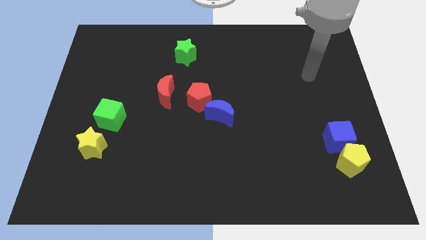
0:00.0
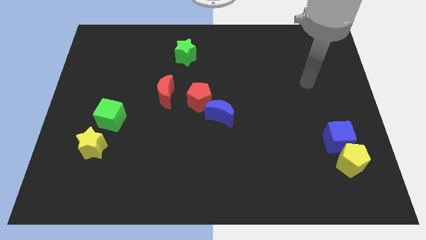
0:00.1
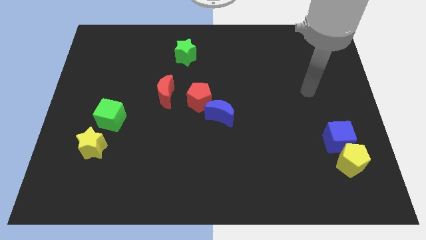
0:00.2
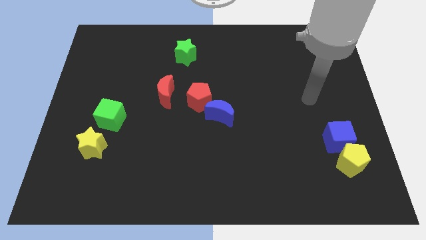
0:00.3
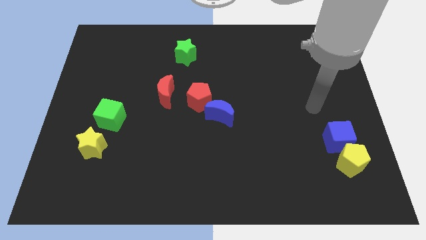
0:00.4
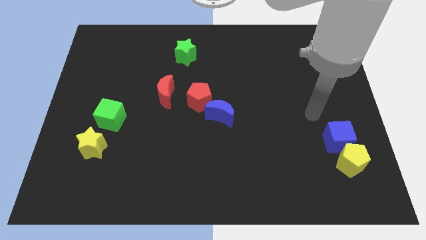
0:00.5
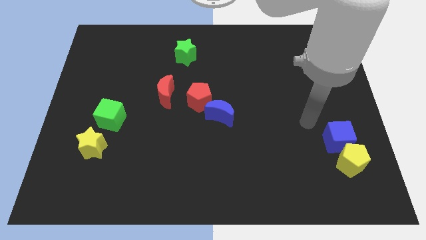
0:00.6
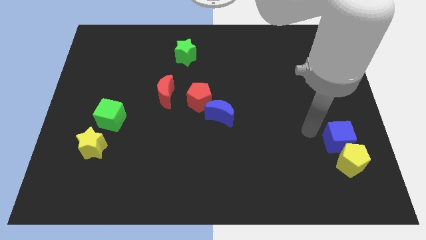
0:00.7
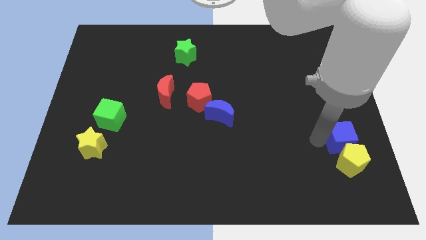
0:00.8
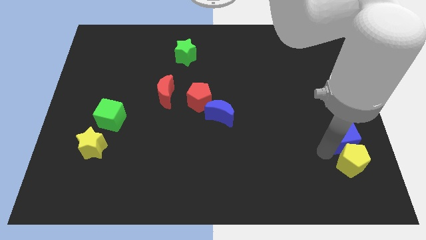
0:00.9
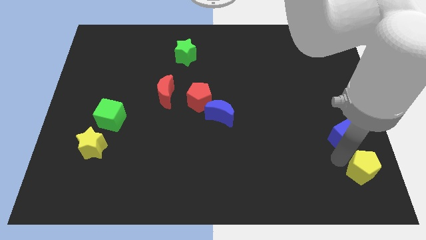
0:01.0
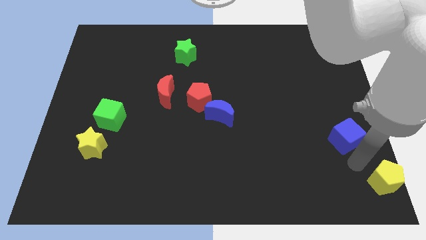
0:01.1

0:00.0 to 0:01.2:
separate the blue cube from the yellow pentagon

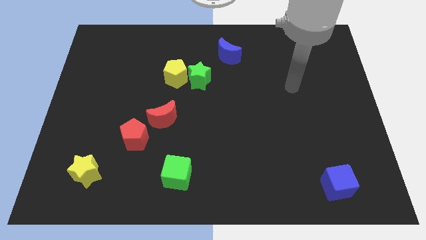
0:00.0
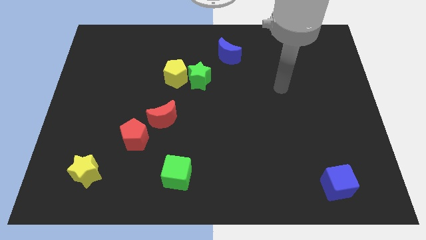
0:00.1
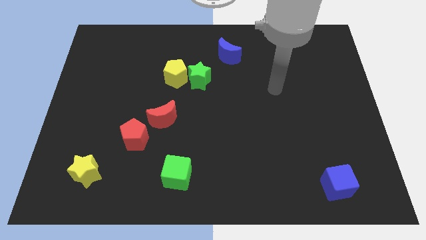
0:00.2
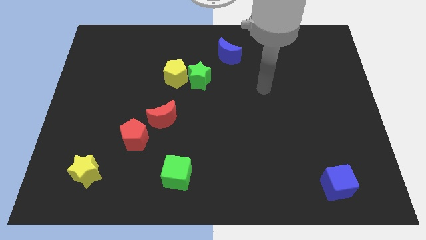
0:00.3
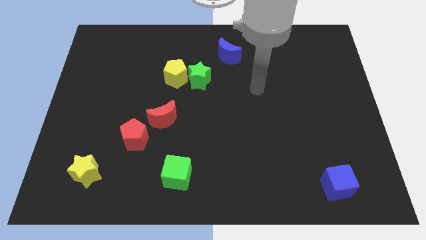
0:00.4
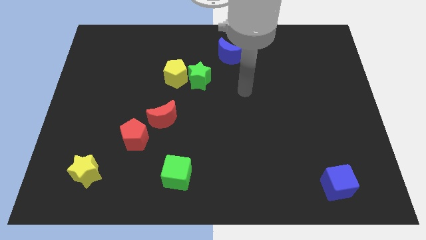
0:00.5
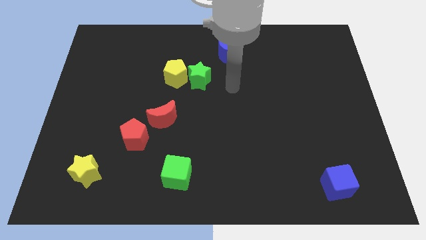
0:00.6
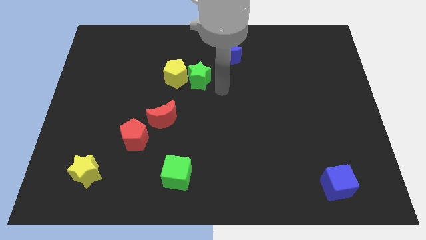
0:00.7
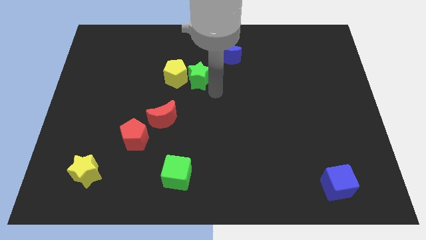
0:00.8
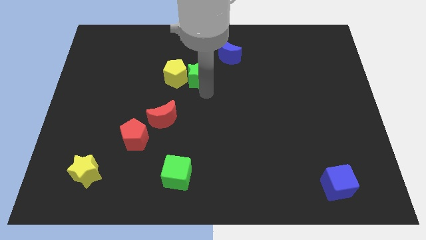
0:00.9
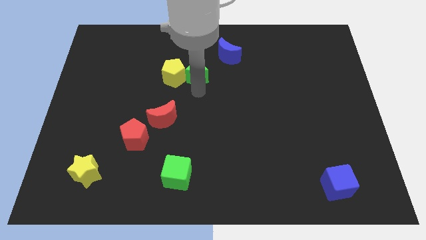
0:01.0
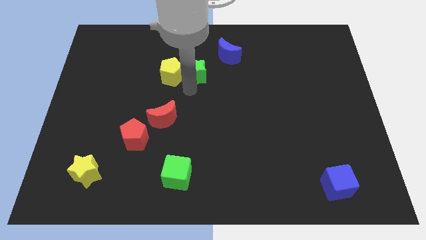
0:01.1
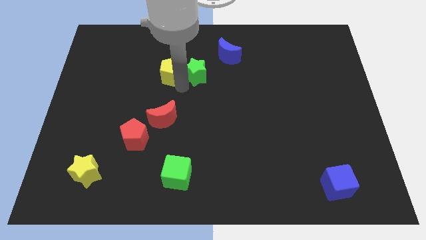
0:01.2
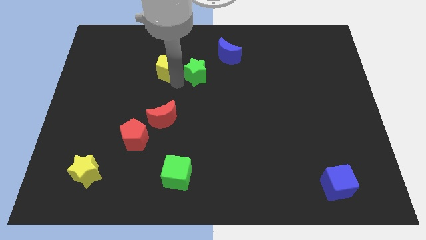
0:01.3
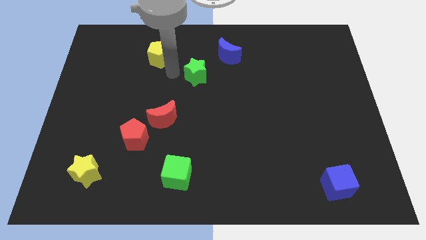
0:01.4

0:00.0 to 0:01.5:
pull the green star apart from the yellow pentagon

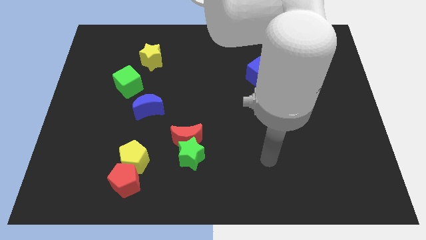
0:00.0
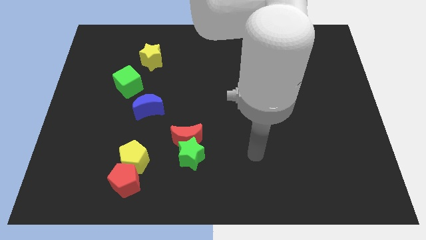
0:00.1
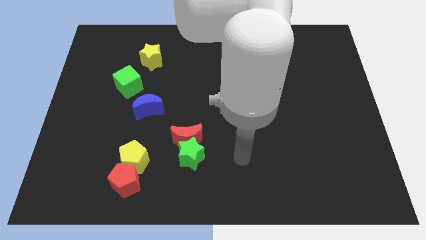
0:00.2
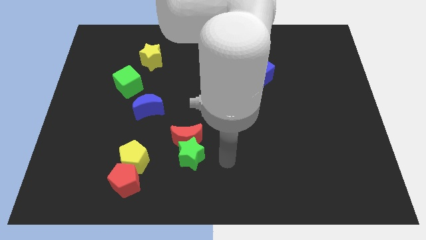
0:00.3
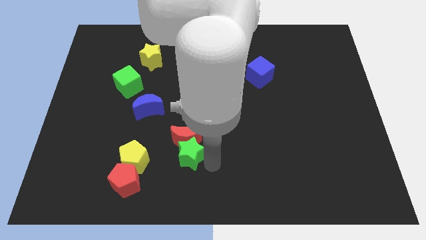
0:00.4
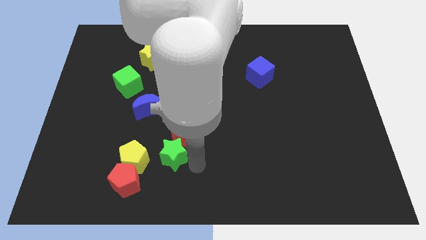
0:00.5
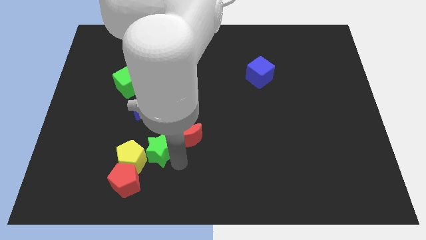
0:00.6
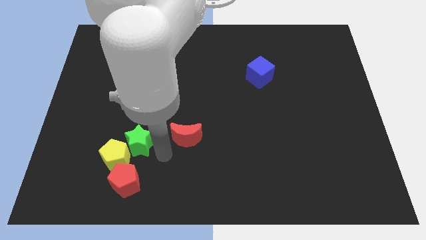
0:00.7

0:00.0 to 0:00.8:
separate the red moon from the green star

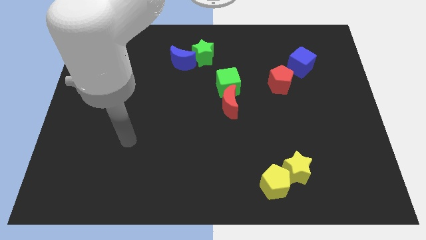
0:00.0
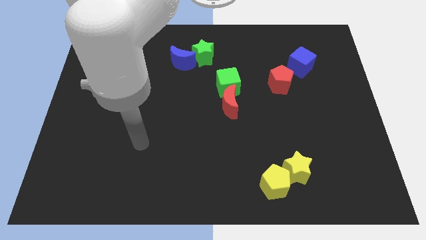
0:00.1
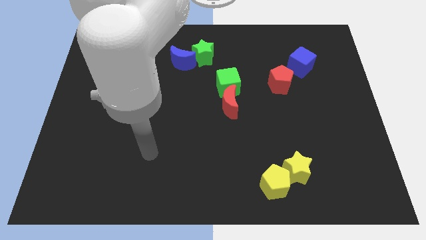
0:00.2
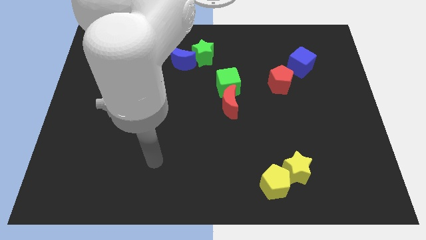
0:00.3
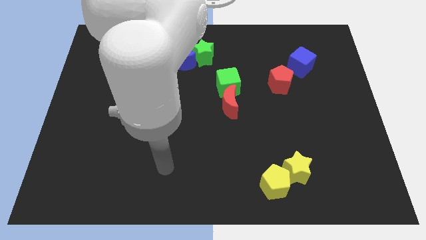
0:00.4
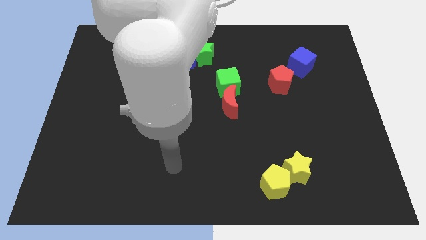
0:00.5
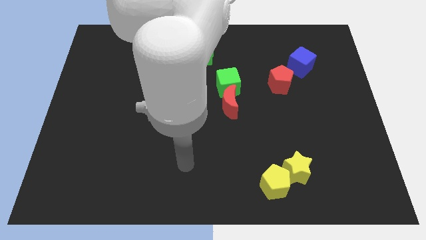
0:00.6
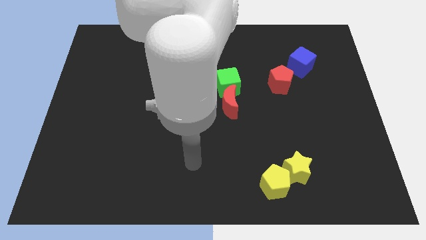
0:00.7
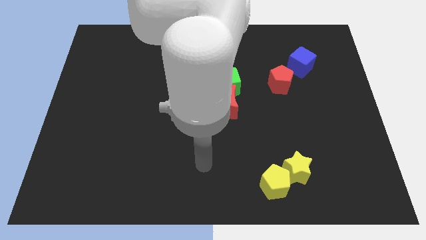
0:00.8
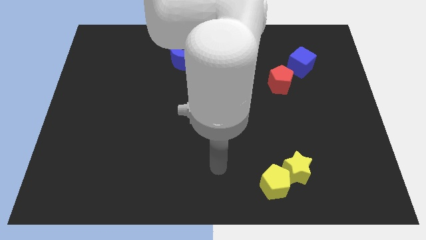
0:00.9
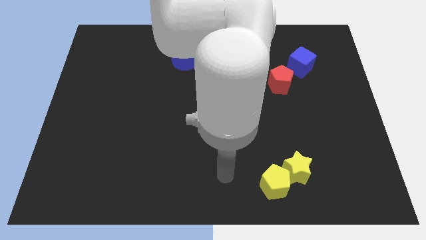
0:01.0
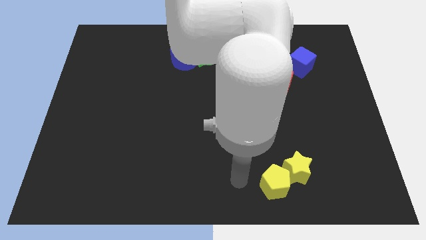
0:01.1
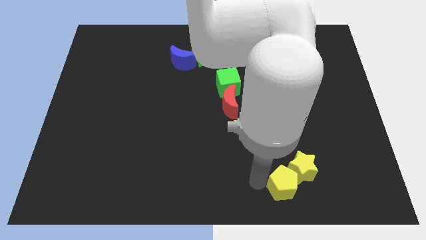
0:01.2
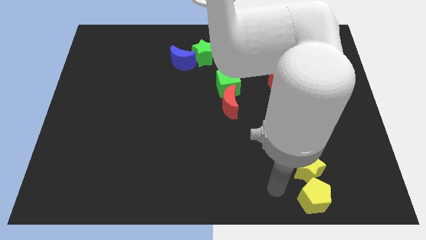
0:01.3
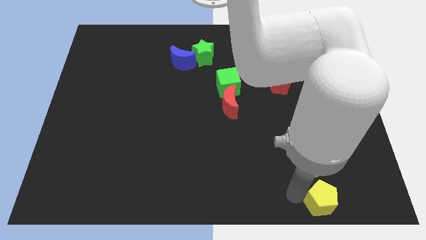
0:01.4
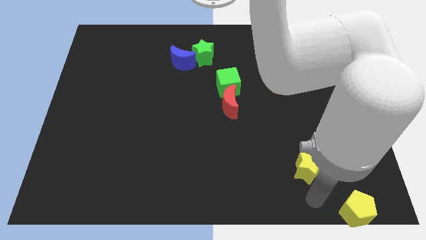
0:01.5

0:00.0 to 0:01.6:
pull the yellow star apart from the yellow pentagon

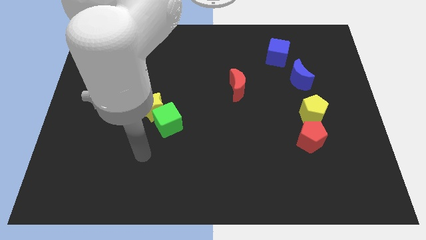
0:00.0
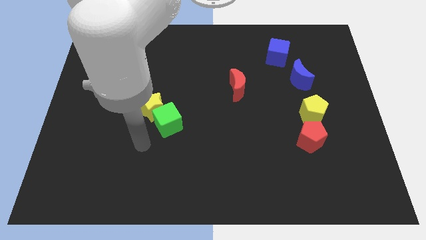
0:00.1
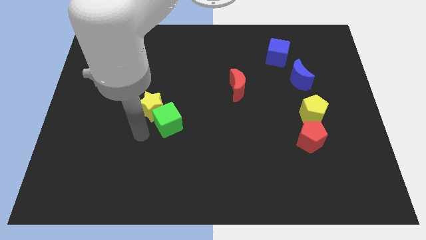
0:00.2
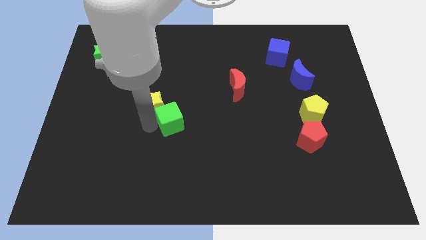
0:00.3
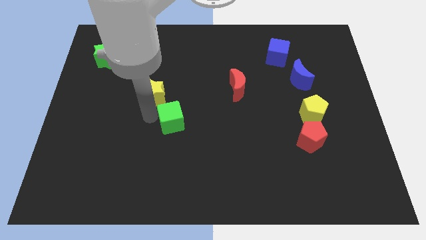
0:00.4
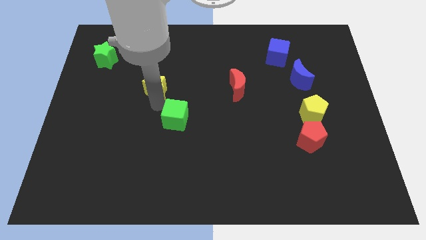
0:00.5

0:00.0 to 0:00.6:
move the green cube away from the yellow star

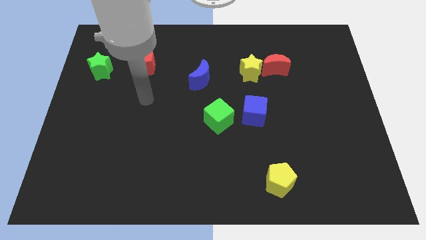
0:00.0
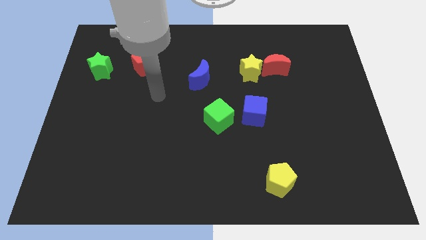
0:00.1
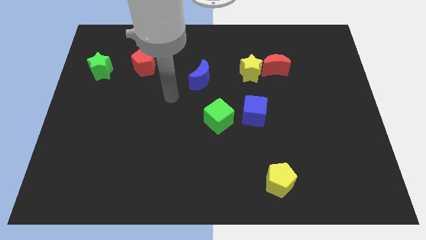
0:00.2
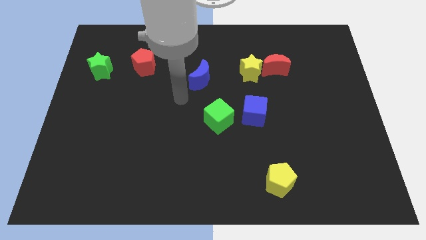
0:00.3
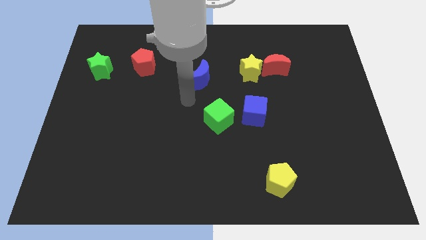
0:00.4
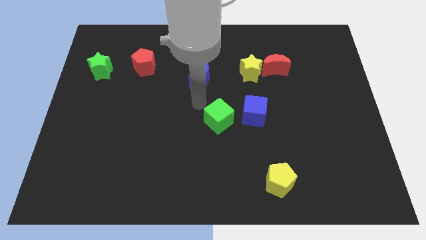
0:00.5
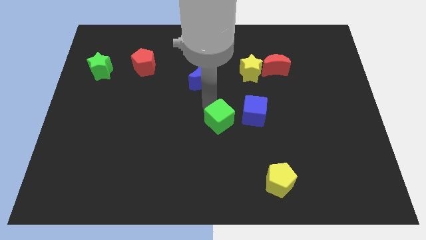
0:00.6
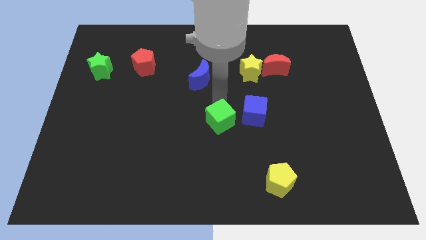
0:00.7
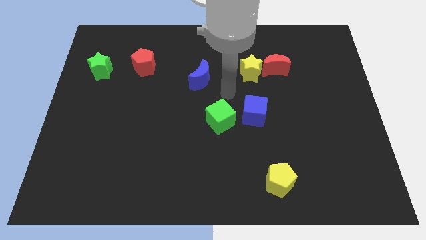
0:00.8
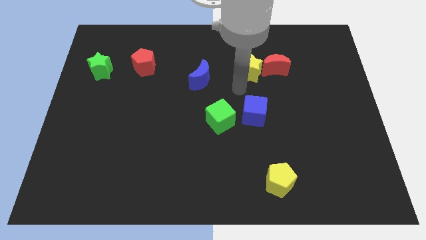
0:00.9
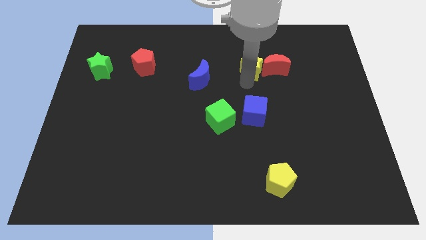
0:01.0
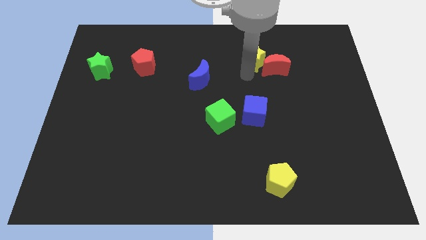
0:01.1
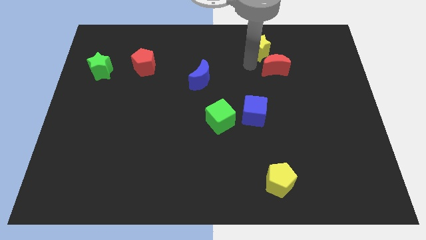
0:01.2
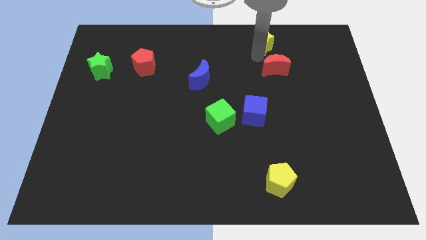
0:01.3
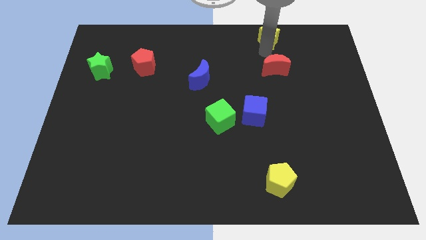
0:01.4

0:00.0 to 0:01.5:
move the red moon away from the yellow star

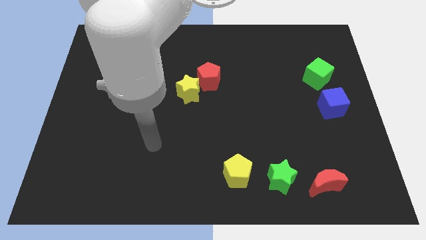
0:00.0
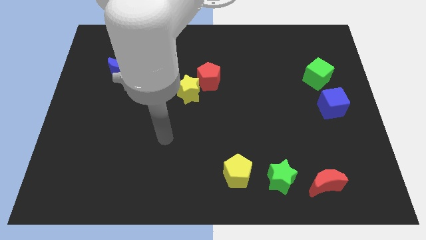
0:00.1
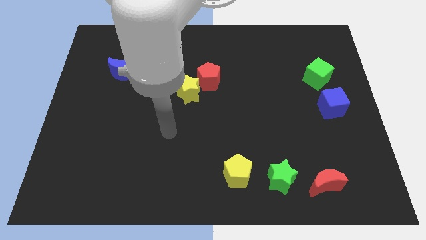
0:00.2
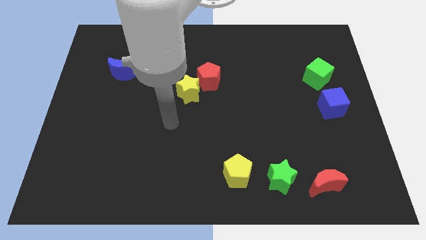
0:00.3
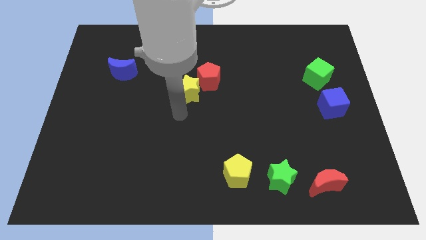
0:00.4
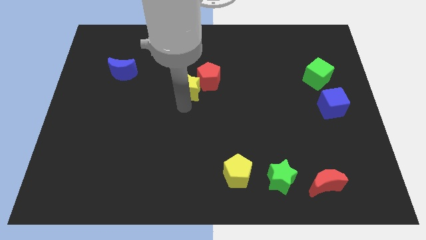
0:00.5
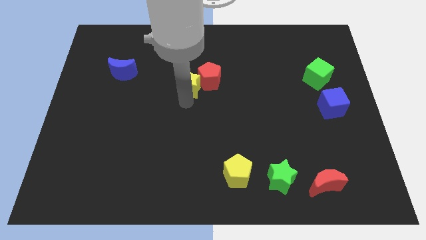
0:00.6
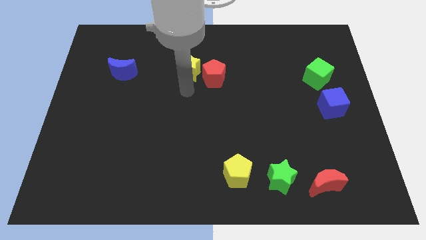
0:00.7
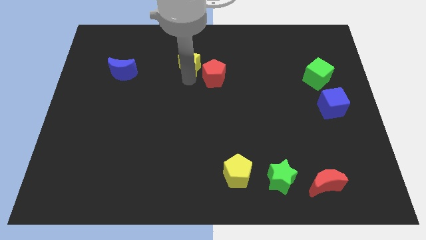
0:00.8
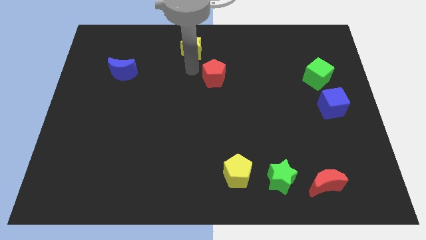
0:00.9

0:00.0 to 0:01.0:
separate the red pentagon from the yellow star

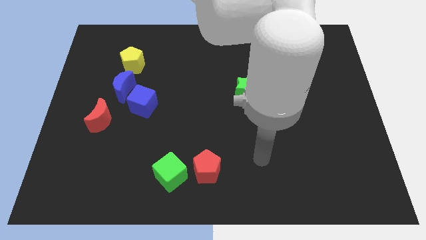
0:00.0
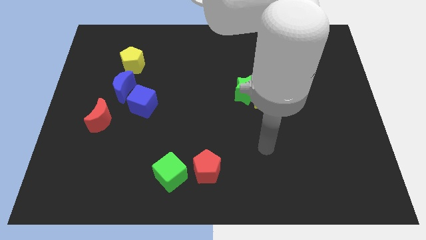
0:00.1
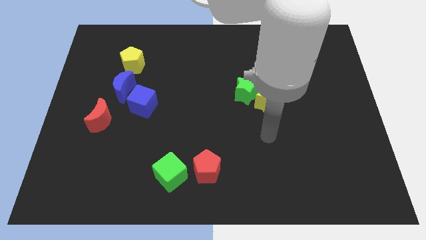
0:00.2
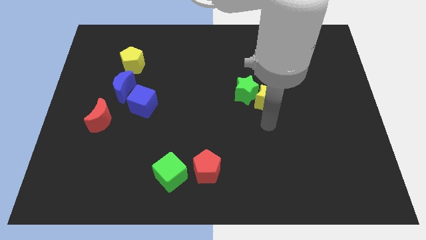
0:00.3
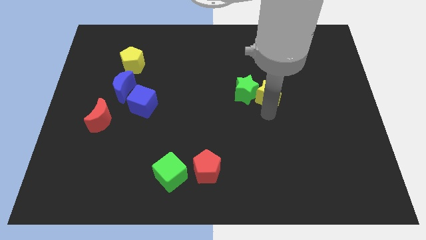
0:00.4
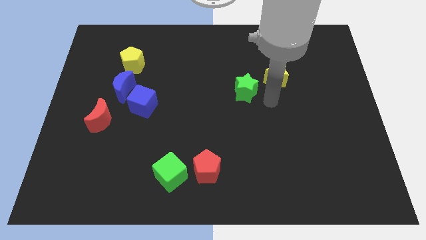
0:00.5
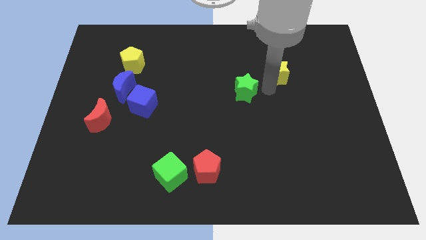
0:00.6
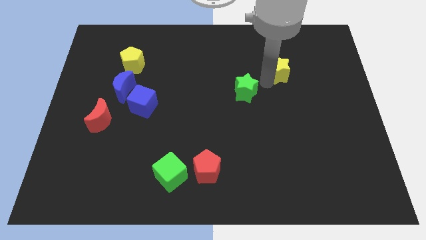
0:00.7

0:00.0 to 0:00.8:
move the green star away from the yellow star

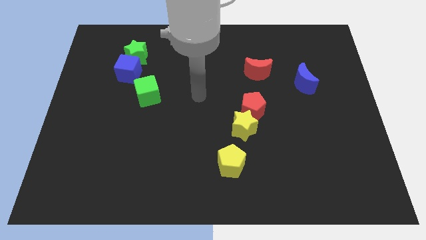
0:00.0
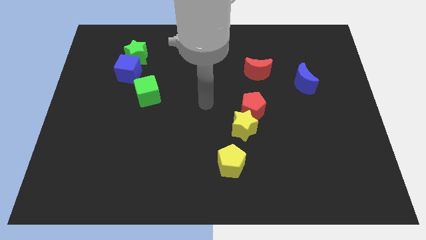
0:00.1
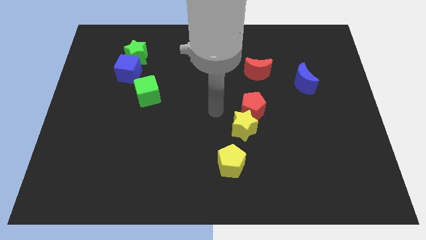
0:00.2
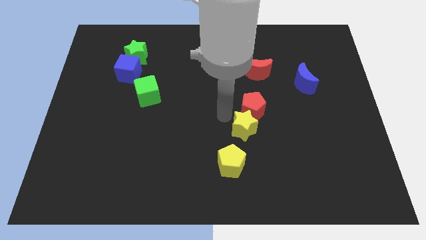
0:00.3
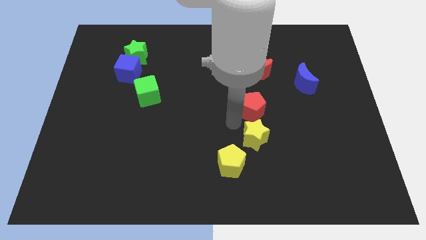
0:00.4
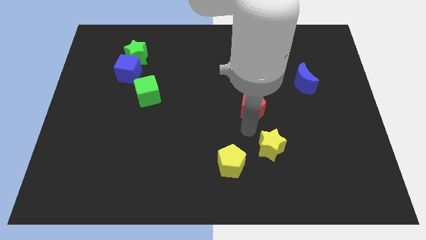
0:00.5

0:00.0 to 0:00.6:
pull the red pentagon apart from the yellow star
